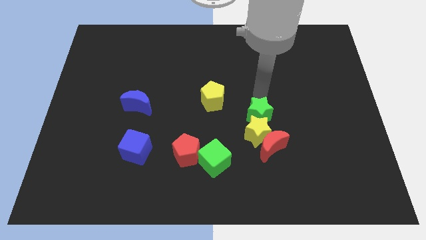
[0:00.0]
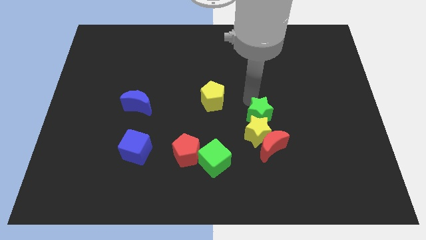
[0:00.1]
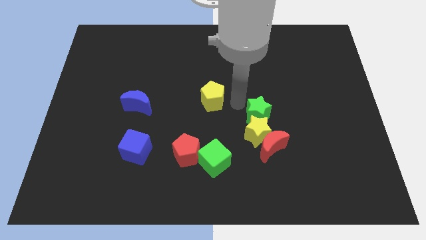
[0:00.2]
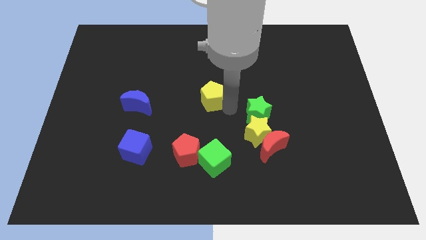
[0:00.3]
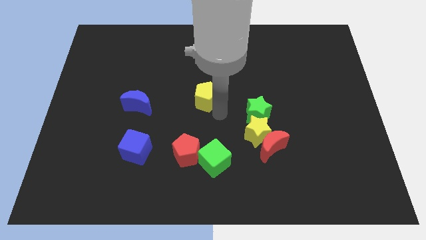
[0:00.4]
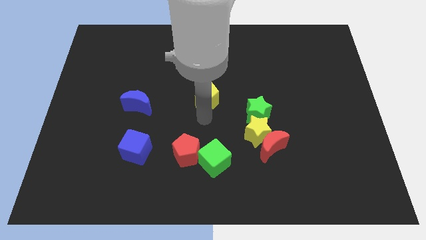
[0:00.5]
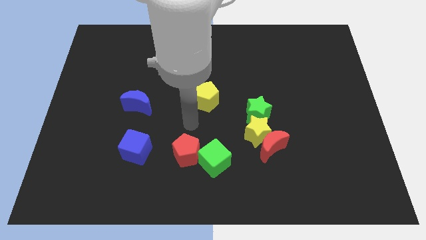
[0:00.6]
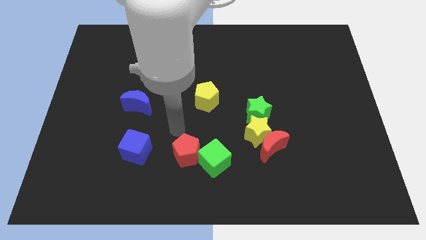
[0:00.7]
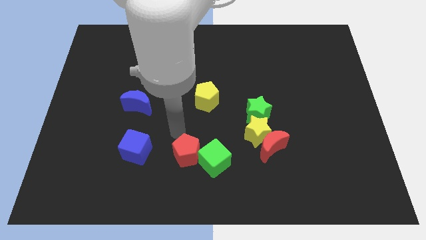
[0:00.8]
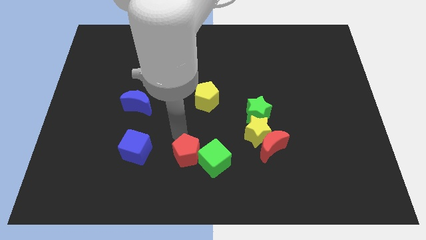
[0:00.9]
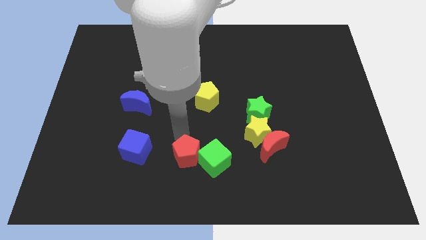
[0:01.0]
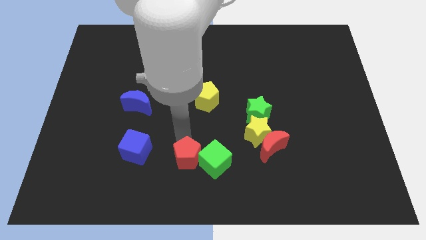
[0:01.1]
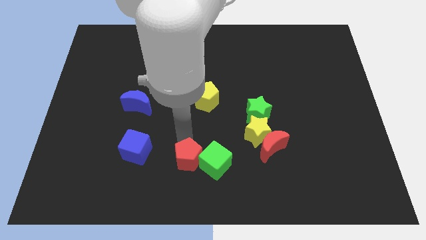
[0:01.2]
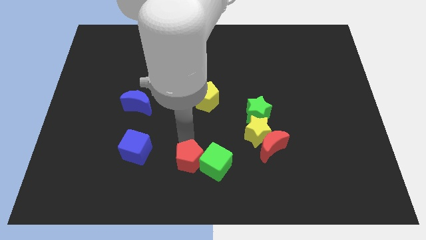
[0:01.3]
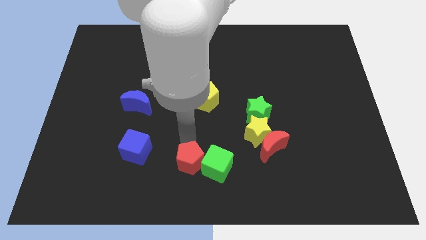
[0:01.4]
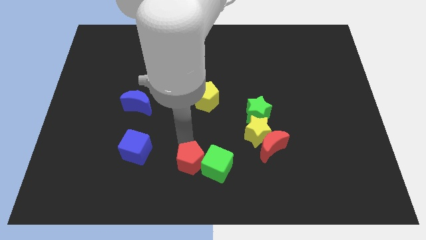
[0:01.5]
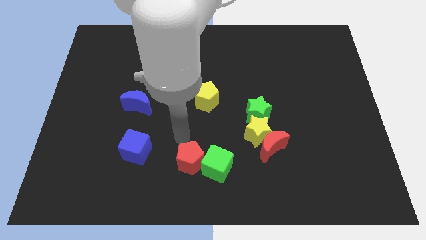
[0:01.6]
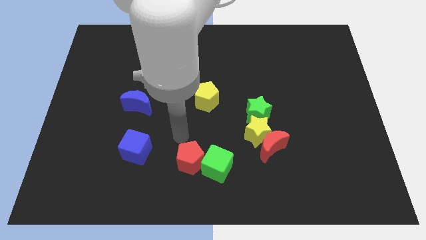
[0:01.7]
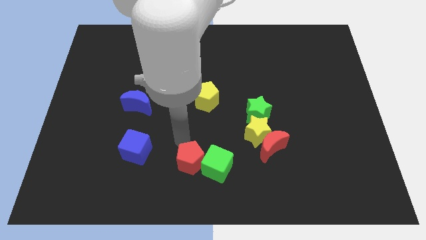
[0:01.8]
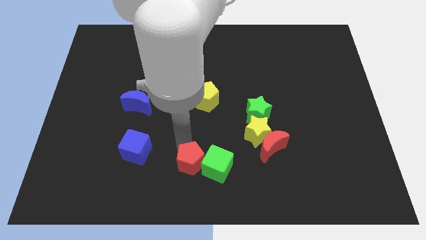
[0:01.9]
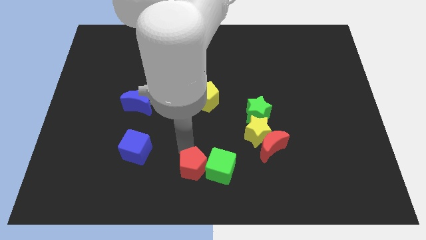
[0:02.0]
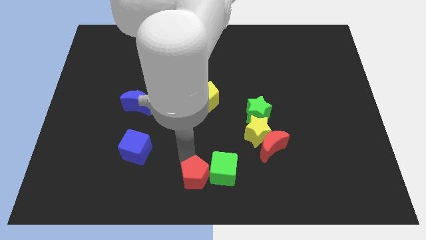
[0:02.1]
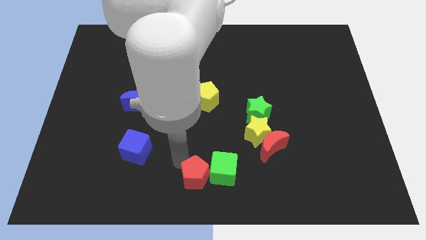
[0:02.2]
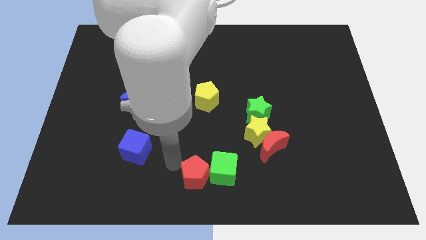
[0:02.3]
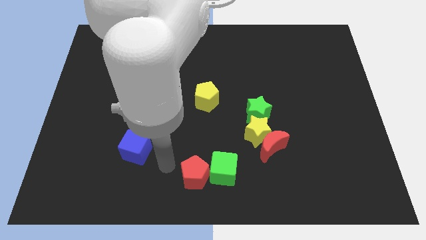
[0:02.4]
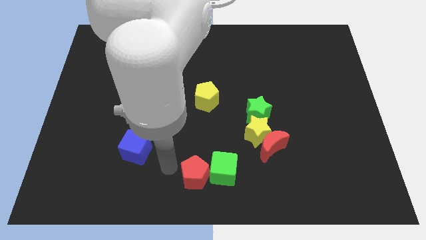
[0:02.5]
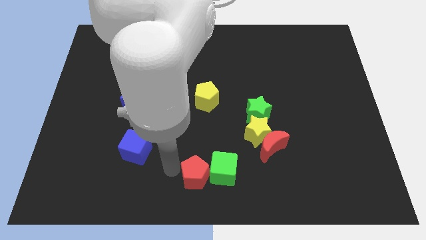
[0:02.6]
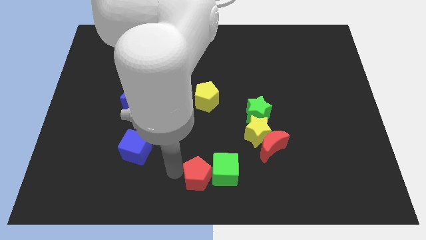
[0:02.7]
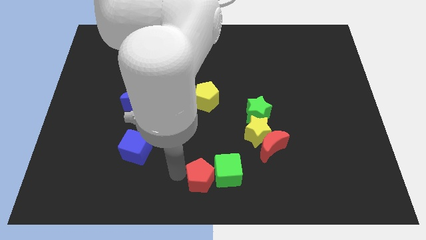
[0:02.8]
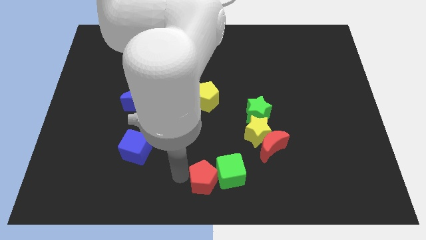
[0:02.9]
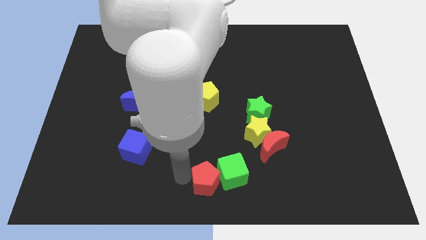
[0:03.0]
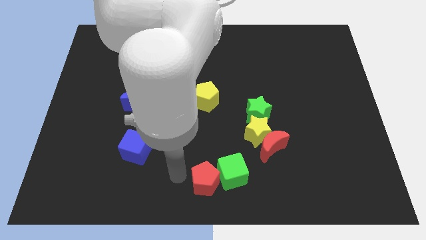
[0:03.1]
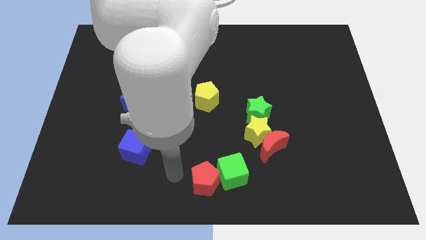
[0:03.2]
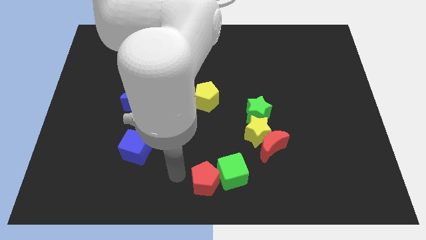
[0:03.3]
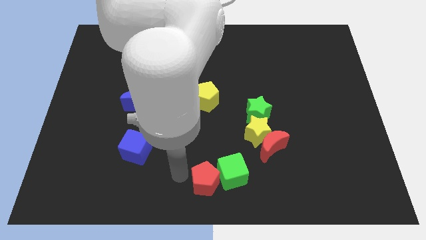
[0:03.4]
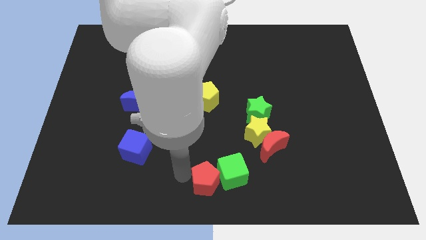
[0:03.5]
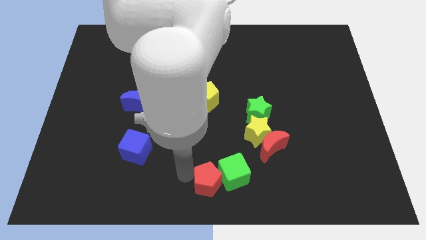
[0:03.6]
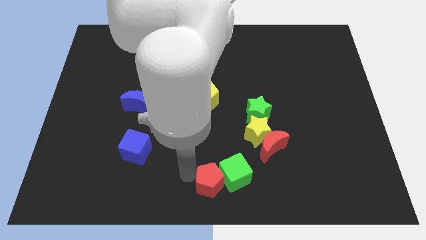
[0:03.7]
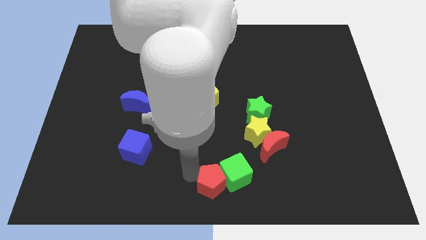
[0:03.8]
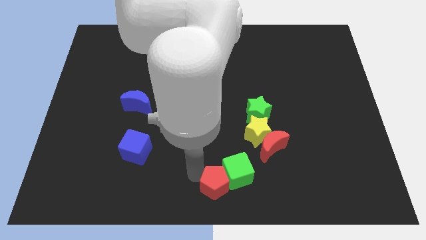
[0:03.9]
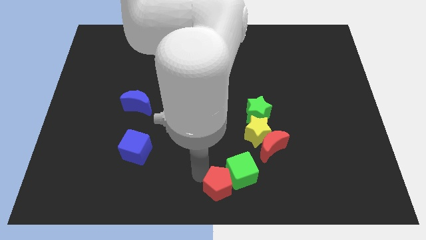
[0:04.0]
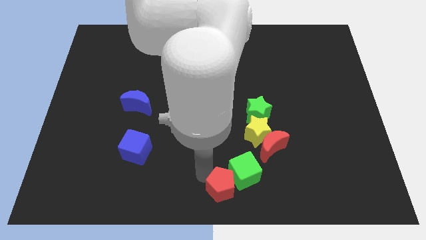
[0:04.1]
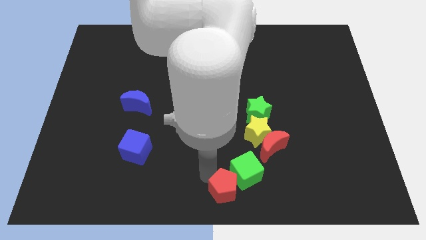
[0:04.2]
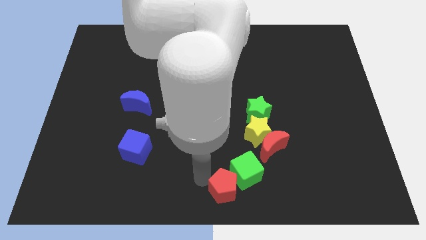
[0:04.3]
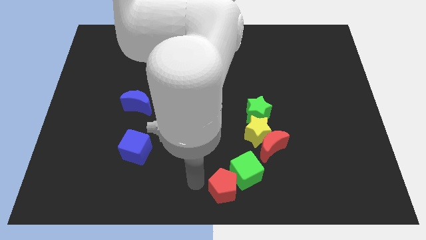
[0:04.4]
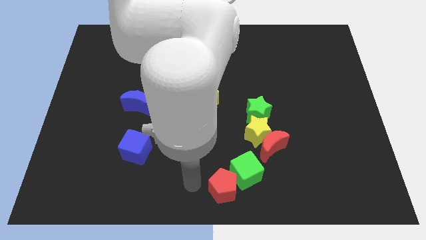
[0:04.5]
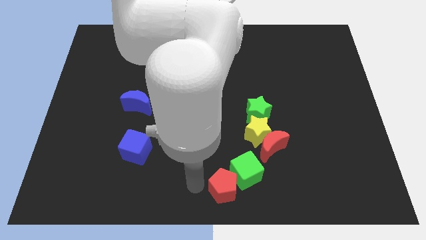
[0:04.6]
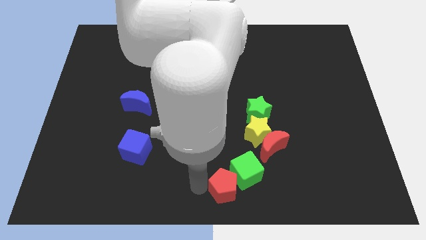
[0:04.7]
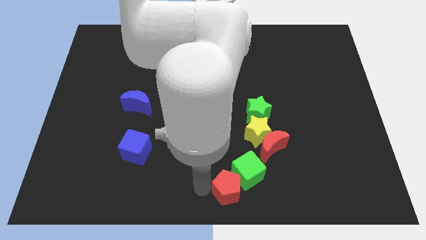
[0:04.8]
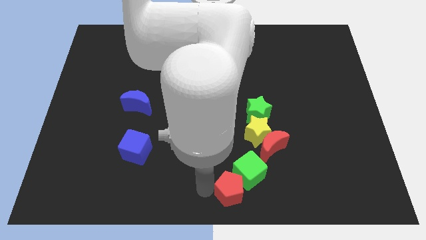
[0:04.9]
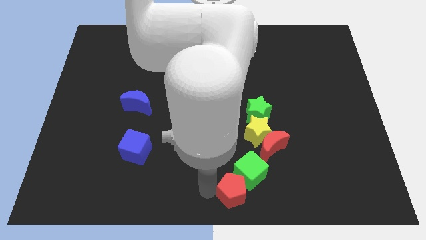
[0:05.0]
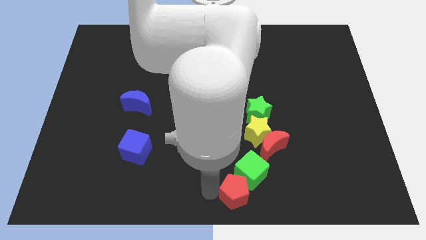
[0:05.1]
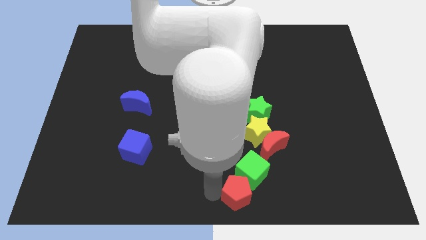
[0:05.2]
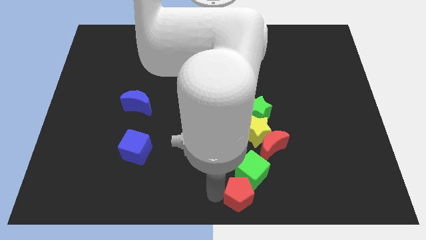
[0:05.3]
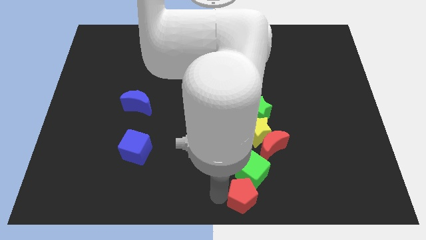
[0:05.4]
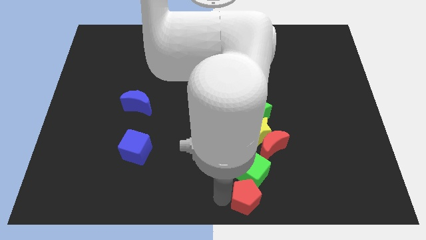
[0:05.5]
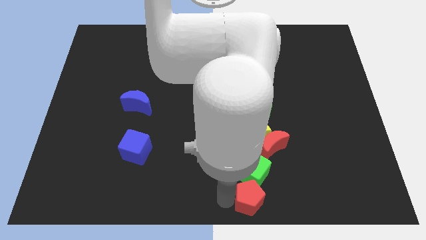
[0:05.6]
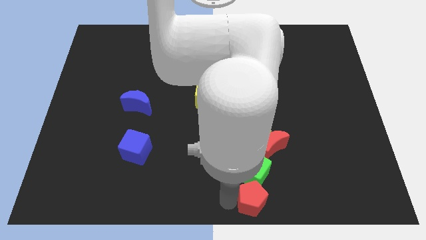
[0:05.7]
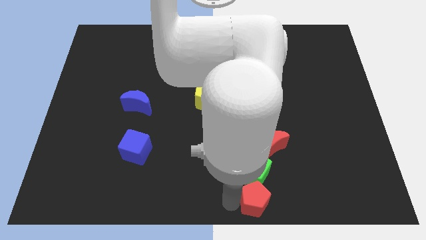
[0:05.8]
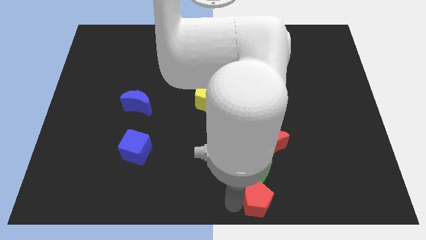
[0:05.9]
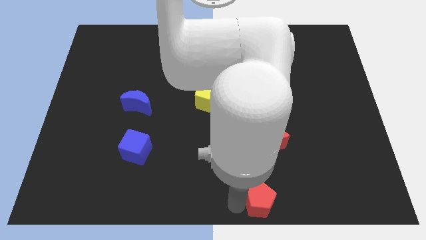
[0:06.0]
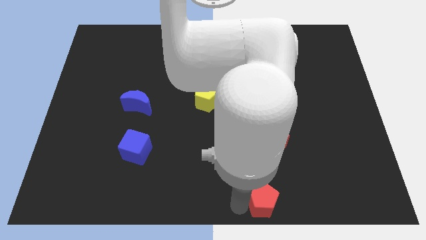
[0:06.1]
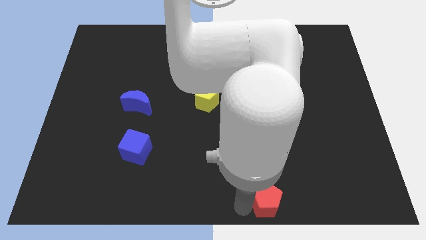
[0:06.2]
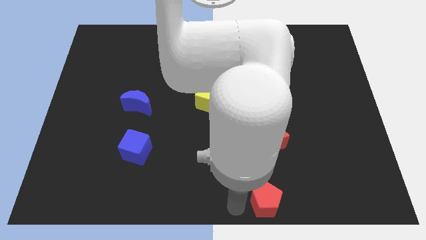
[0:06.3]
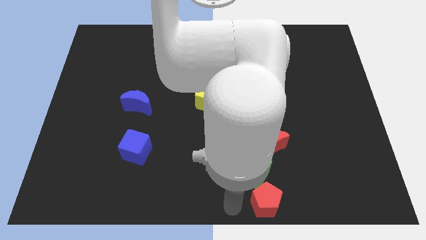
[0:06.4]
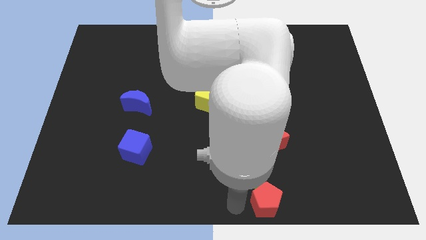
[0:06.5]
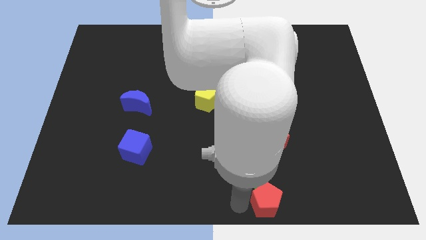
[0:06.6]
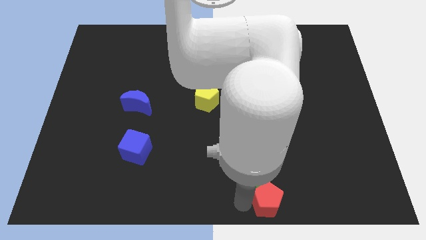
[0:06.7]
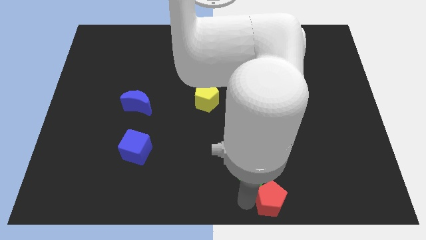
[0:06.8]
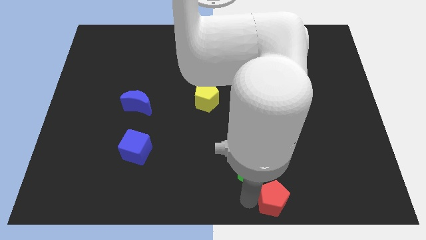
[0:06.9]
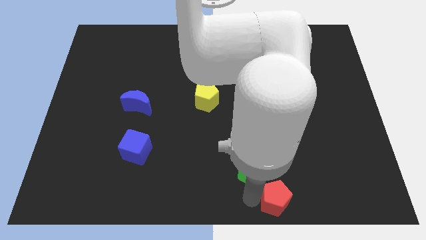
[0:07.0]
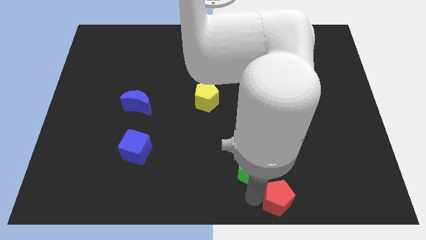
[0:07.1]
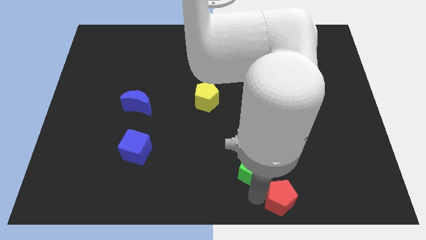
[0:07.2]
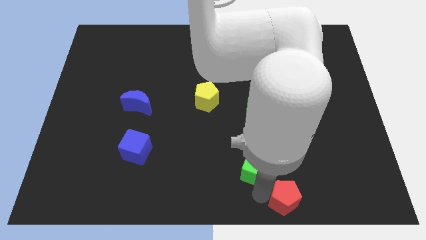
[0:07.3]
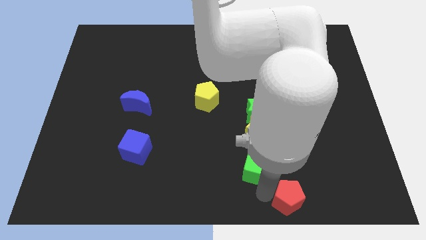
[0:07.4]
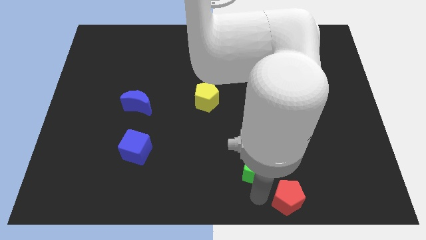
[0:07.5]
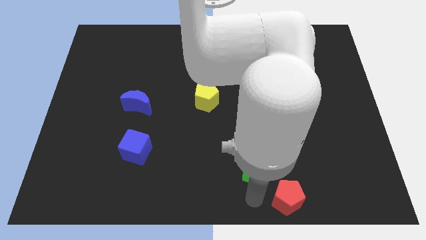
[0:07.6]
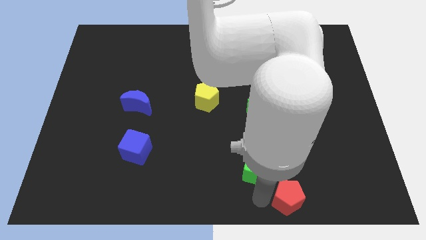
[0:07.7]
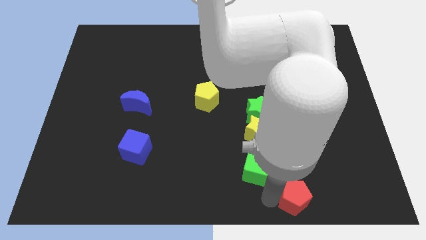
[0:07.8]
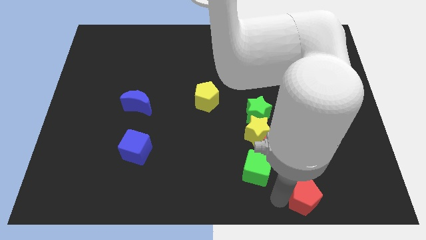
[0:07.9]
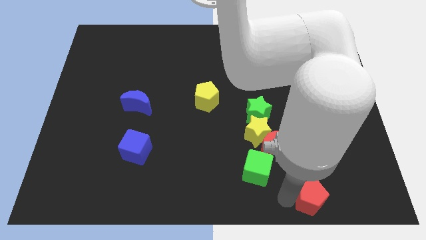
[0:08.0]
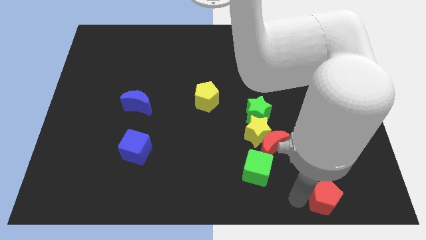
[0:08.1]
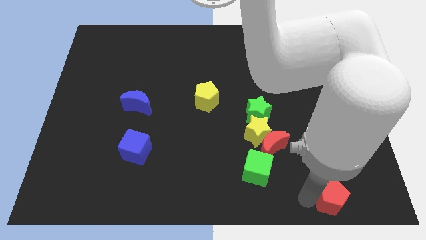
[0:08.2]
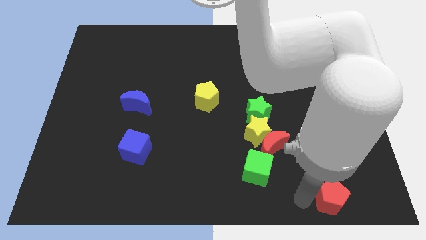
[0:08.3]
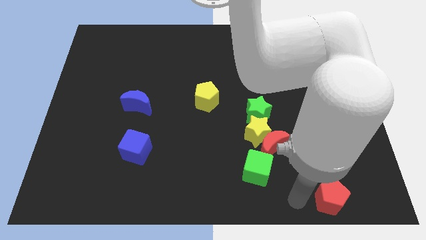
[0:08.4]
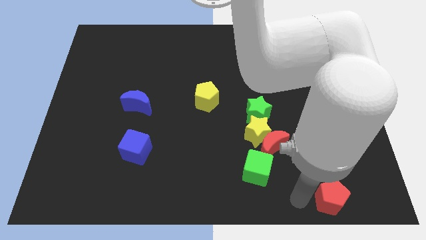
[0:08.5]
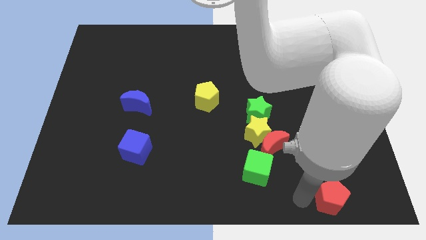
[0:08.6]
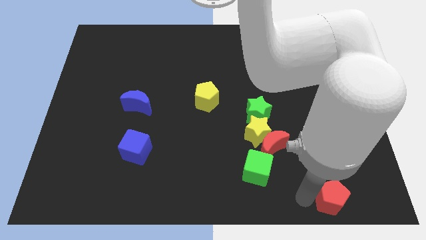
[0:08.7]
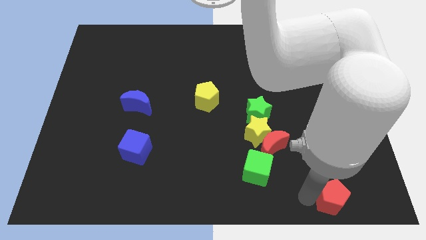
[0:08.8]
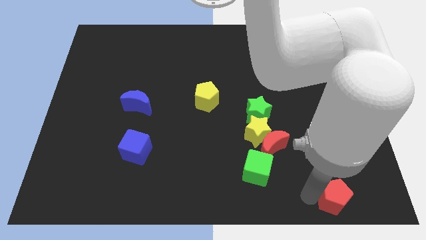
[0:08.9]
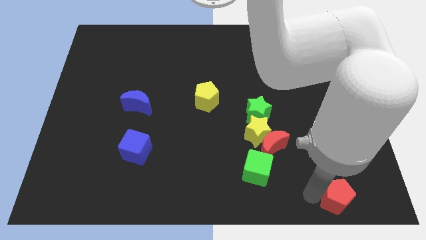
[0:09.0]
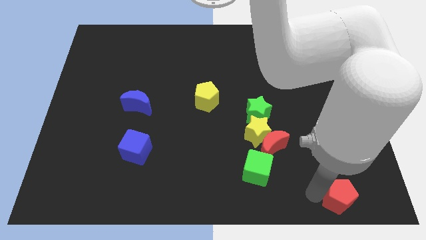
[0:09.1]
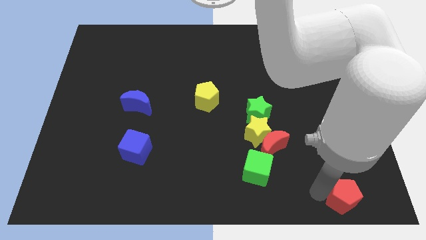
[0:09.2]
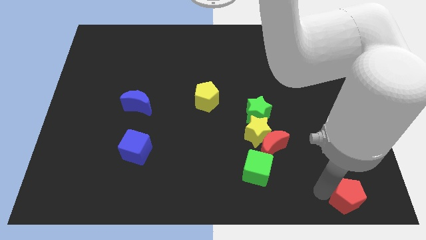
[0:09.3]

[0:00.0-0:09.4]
put the red pentagon to the lower right corner
